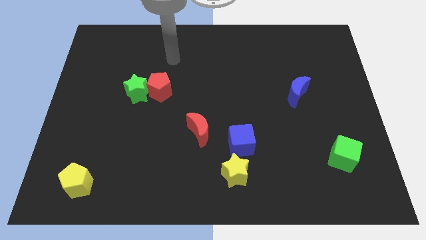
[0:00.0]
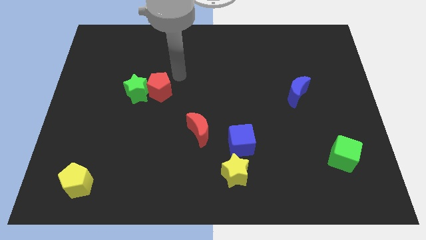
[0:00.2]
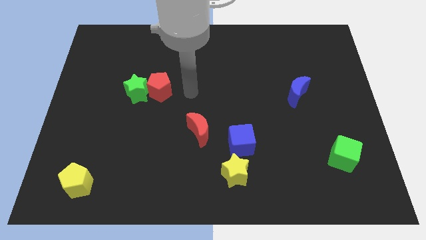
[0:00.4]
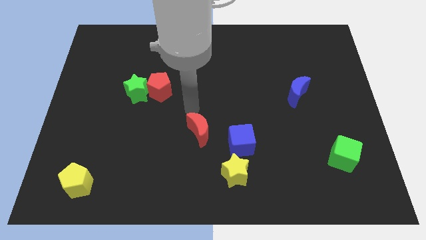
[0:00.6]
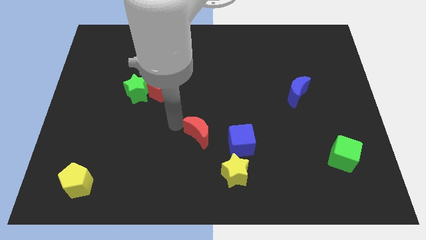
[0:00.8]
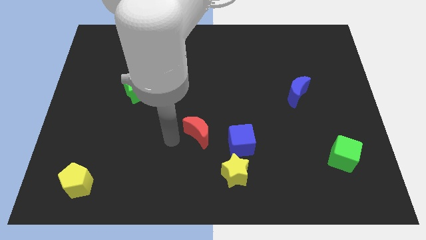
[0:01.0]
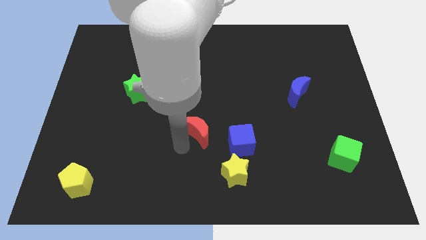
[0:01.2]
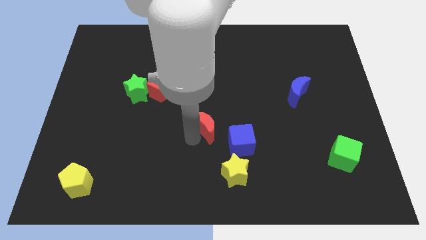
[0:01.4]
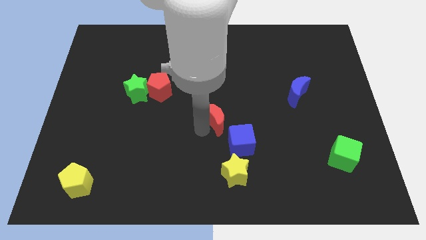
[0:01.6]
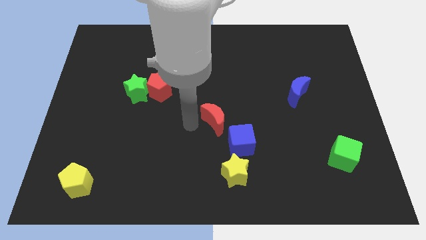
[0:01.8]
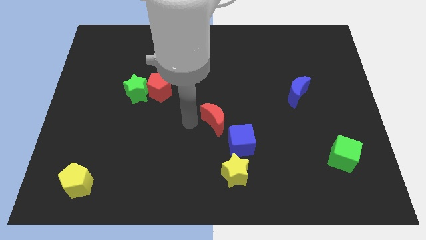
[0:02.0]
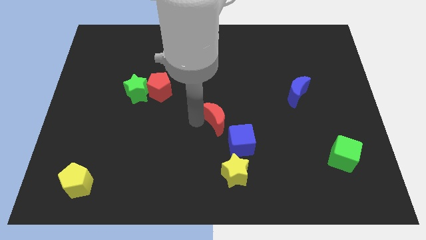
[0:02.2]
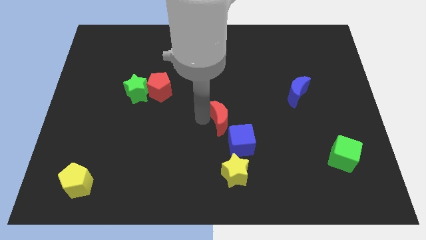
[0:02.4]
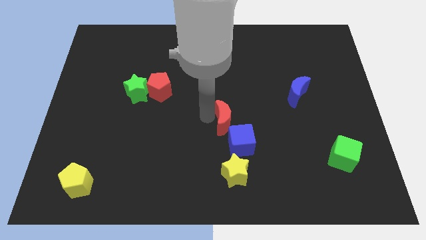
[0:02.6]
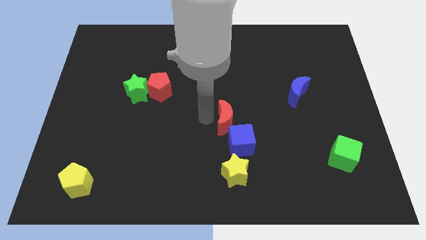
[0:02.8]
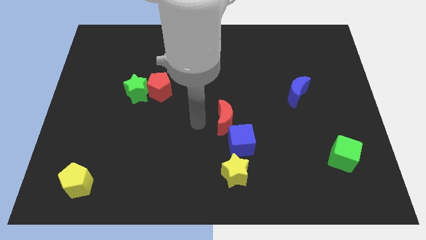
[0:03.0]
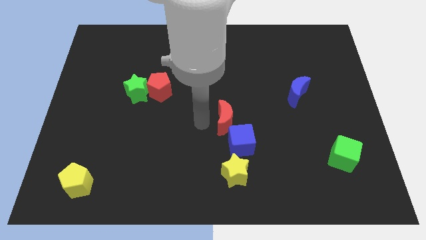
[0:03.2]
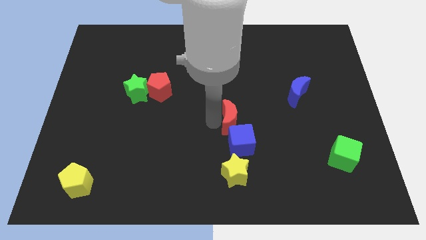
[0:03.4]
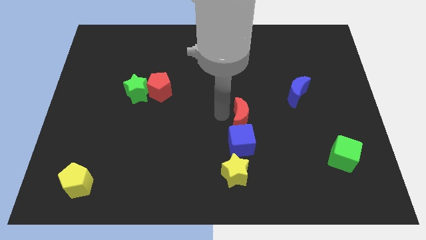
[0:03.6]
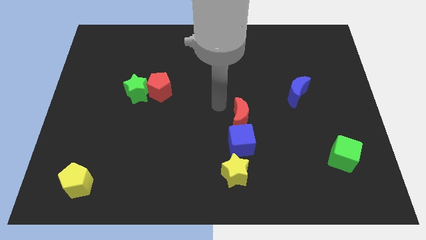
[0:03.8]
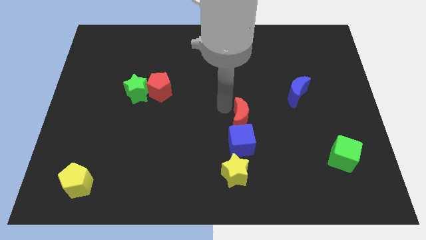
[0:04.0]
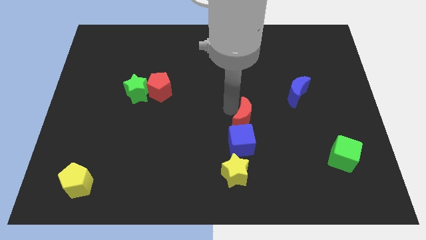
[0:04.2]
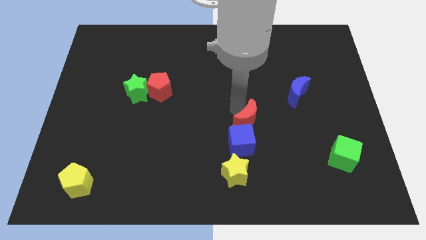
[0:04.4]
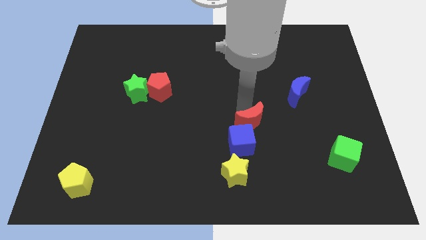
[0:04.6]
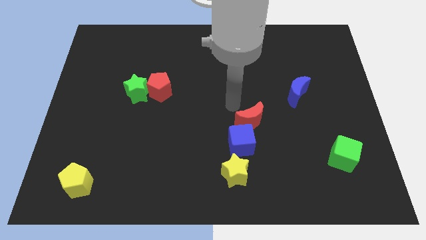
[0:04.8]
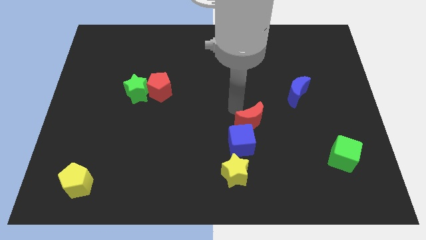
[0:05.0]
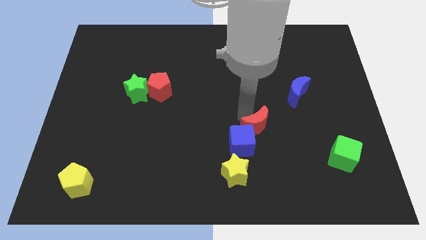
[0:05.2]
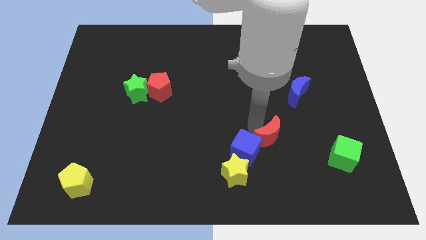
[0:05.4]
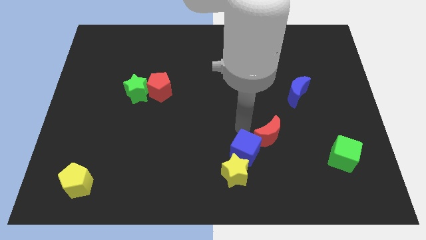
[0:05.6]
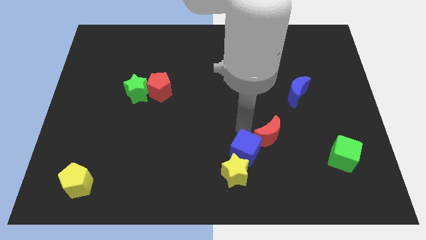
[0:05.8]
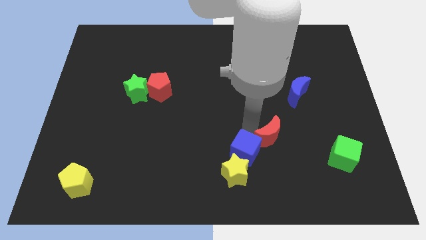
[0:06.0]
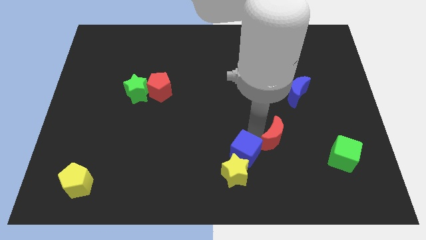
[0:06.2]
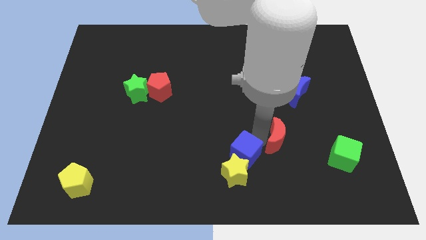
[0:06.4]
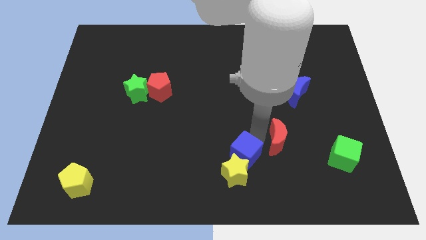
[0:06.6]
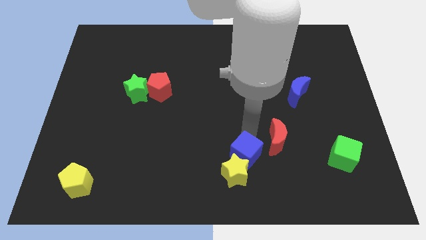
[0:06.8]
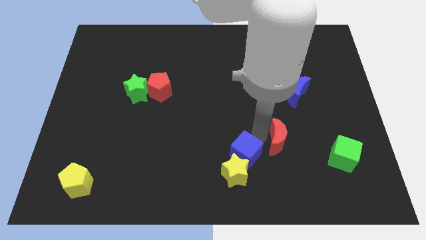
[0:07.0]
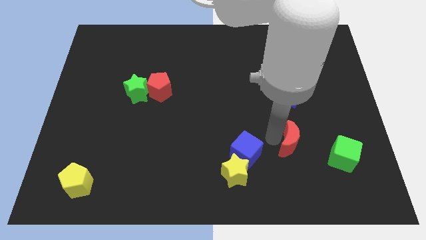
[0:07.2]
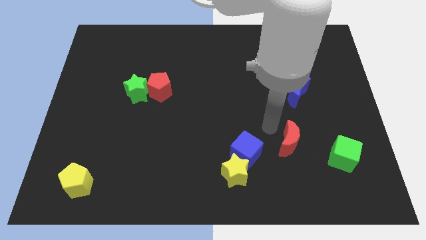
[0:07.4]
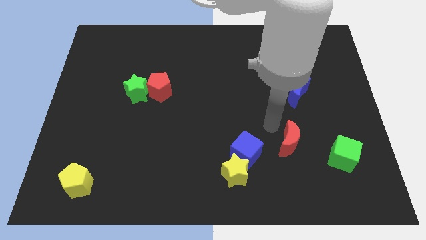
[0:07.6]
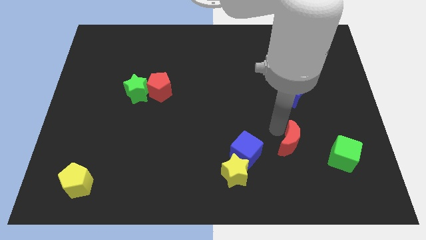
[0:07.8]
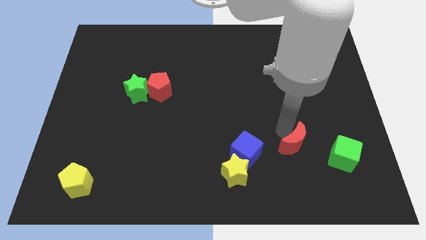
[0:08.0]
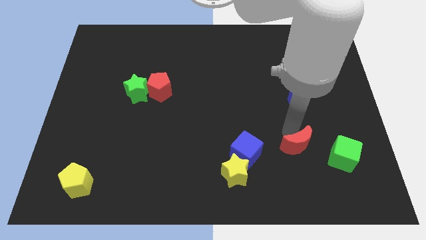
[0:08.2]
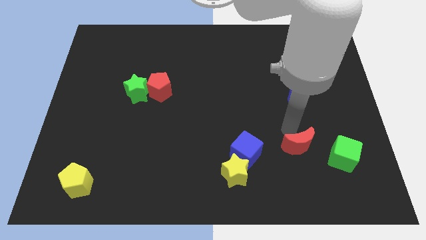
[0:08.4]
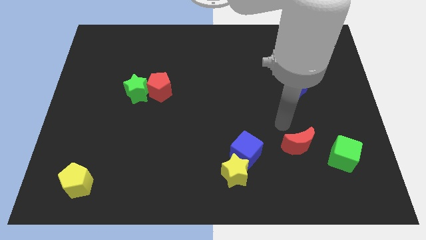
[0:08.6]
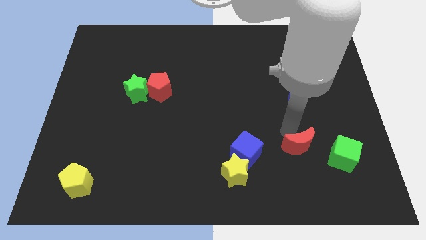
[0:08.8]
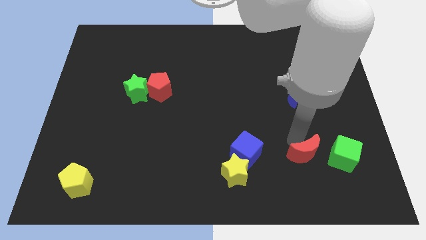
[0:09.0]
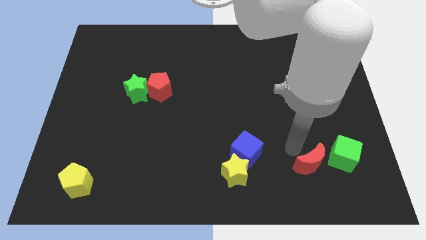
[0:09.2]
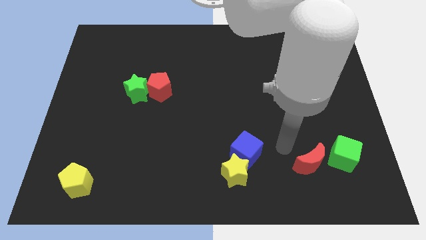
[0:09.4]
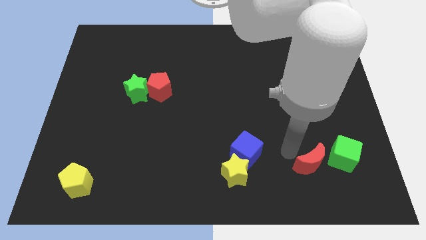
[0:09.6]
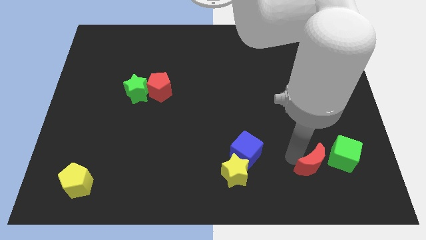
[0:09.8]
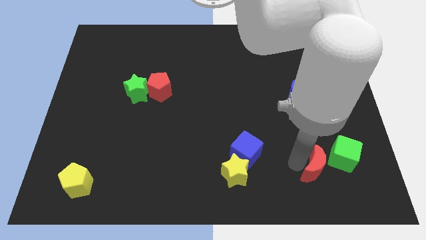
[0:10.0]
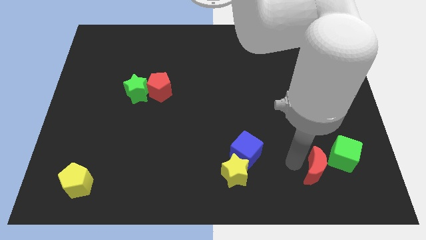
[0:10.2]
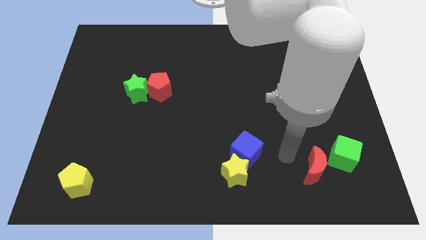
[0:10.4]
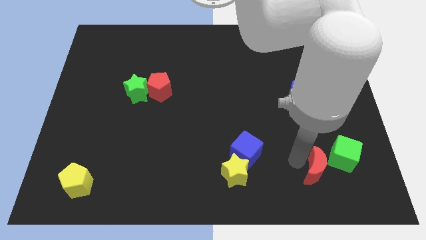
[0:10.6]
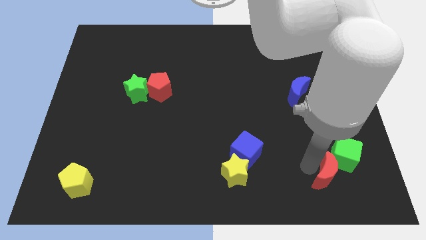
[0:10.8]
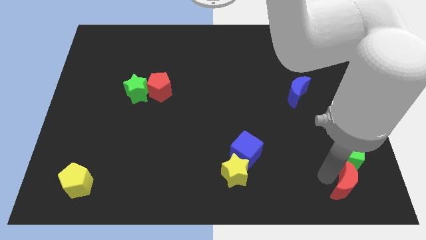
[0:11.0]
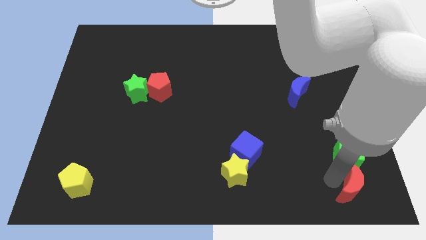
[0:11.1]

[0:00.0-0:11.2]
slide the red moon to the lower right corner

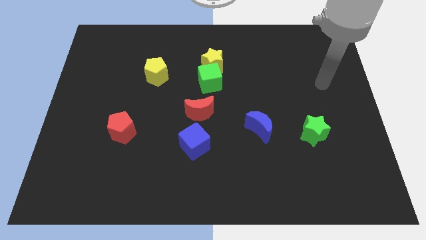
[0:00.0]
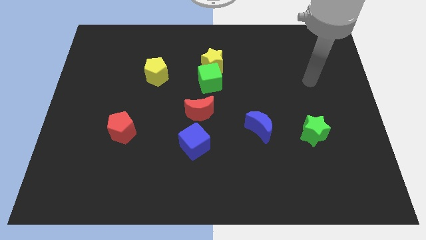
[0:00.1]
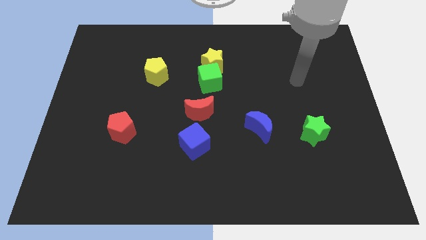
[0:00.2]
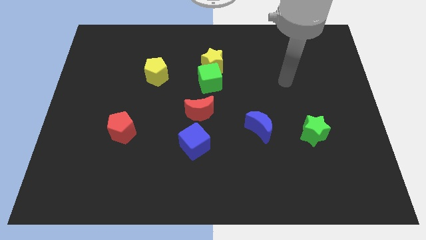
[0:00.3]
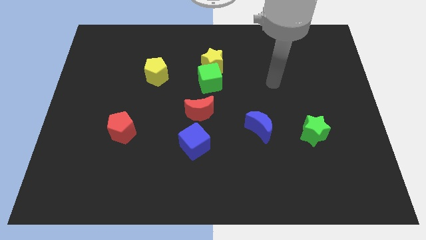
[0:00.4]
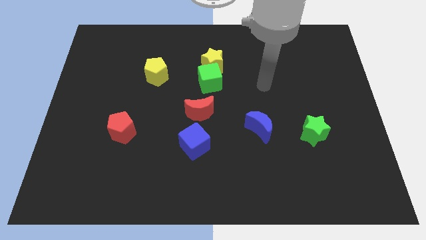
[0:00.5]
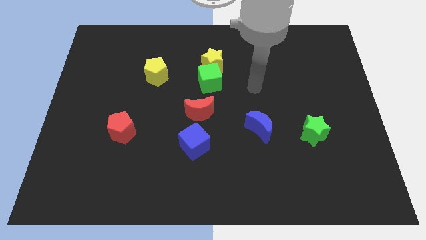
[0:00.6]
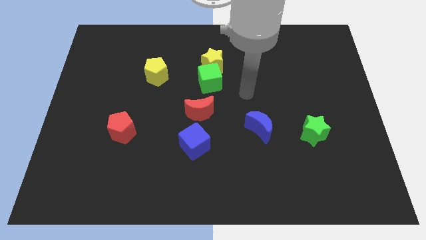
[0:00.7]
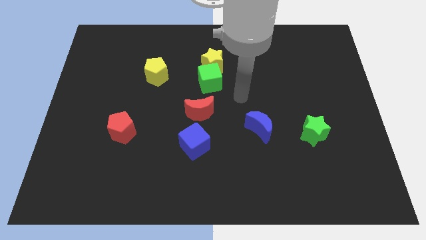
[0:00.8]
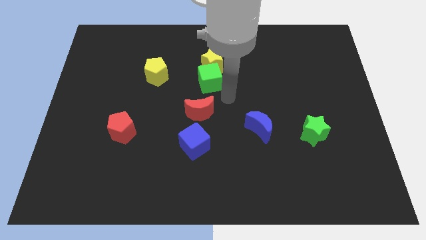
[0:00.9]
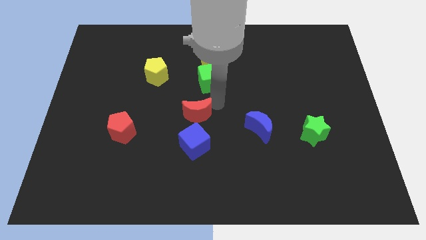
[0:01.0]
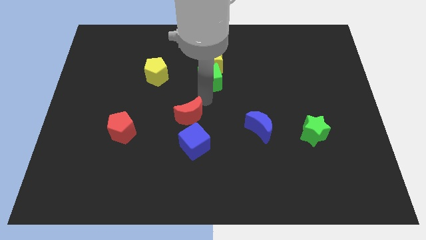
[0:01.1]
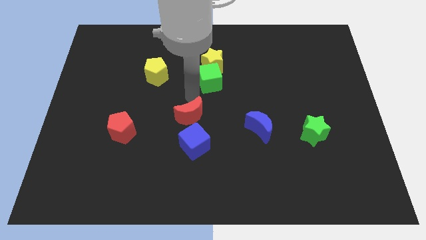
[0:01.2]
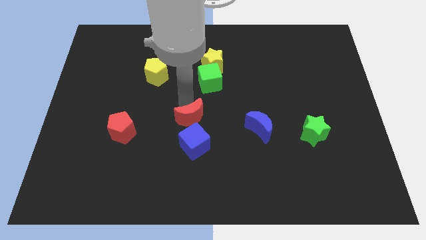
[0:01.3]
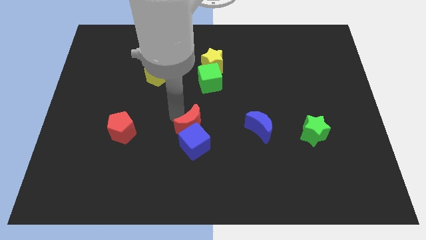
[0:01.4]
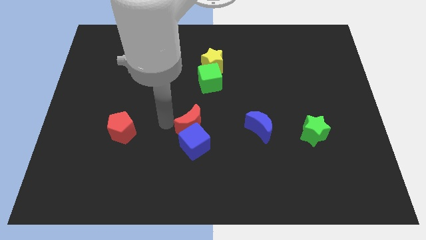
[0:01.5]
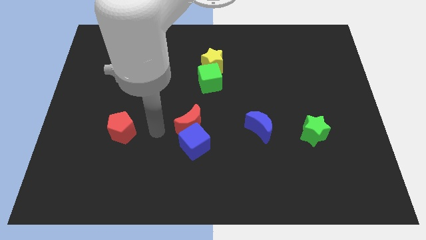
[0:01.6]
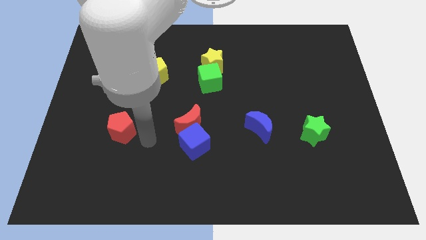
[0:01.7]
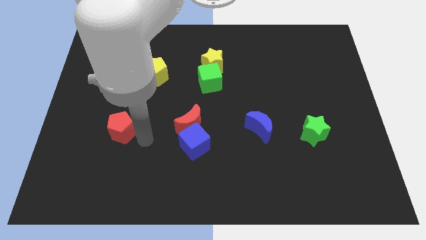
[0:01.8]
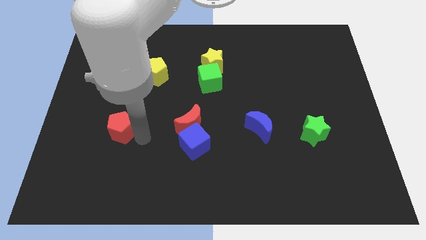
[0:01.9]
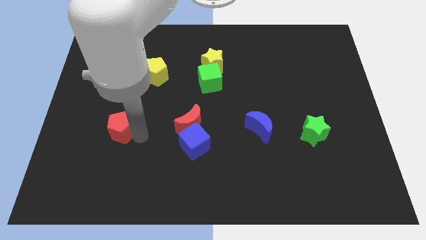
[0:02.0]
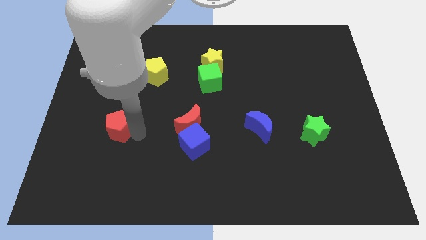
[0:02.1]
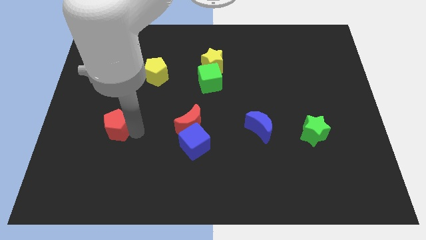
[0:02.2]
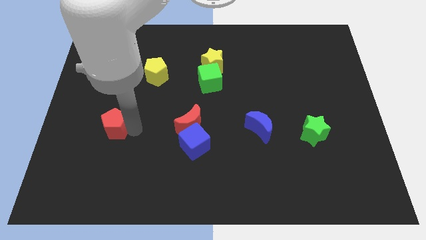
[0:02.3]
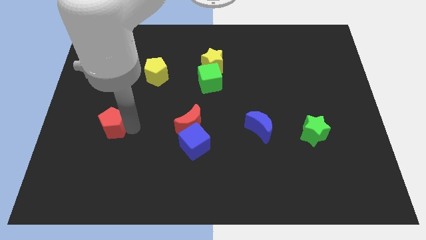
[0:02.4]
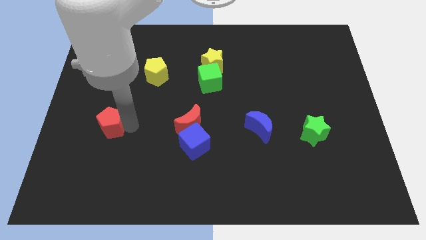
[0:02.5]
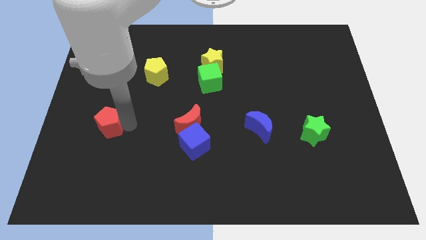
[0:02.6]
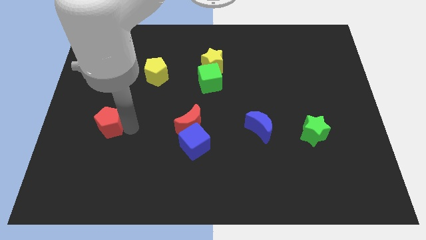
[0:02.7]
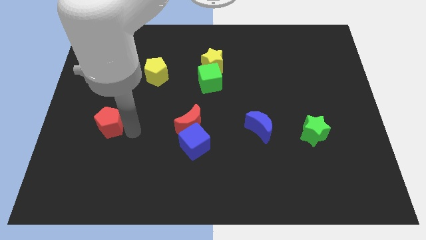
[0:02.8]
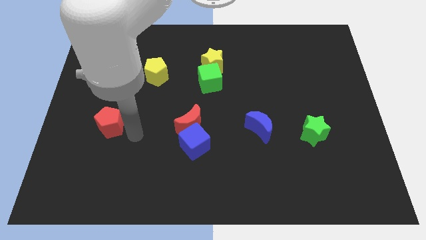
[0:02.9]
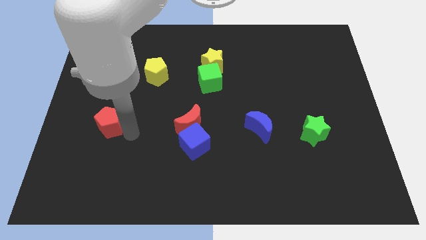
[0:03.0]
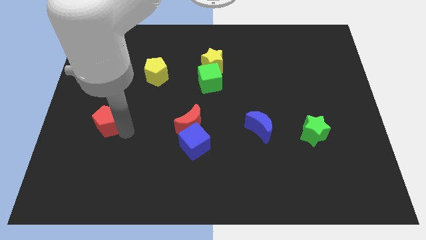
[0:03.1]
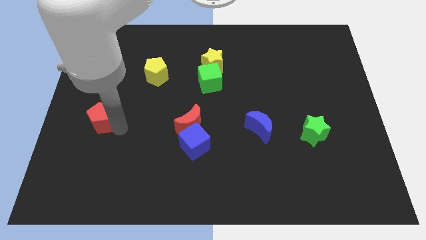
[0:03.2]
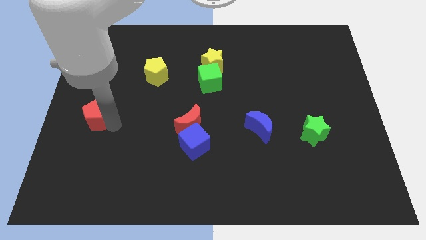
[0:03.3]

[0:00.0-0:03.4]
push the red pentagon to the left side of the board
